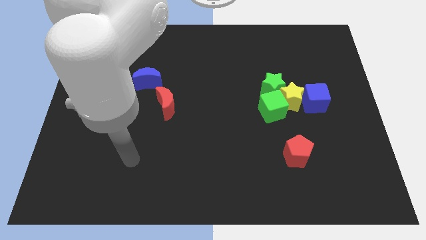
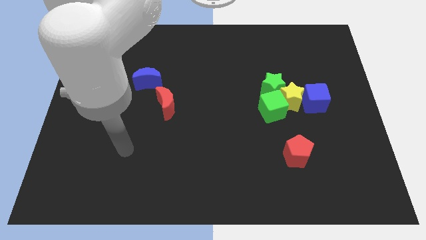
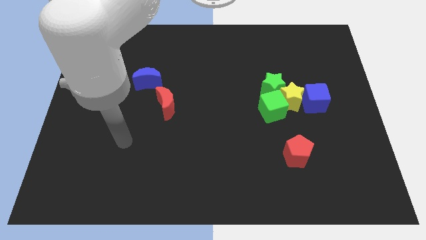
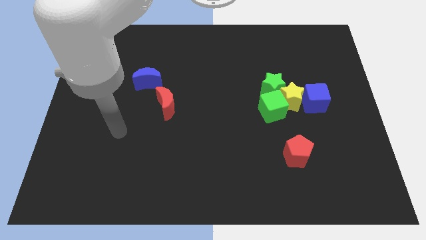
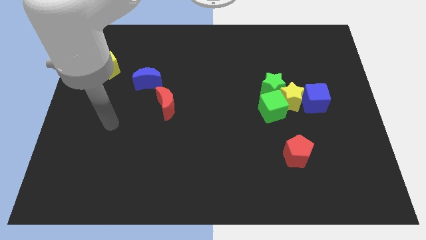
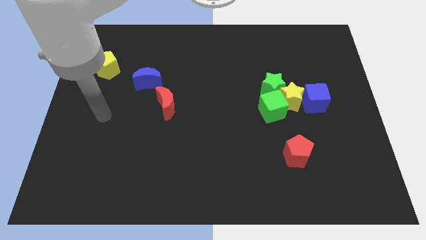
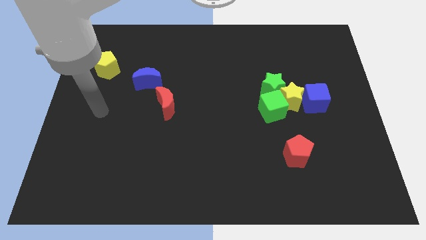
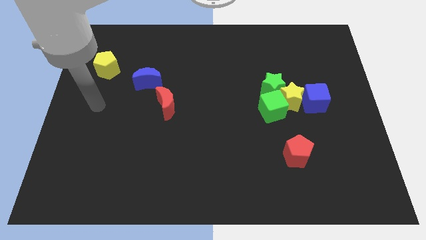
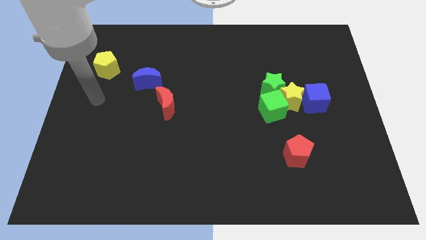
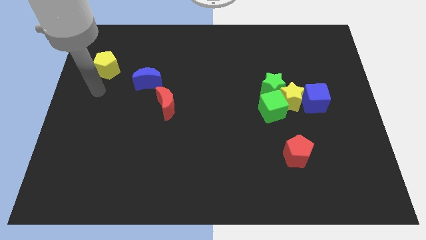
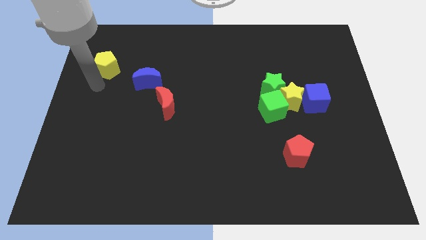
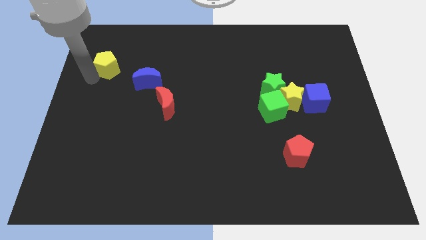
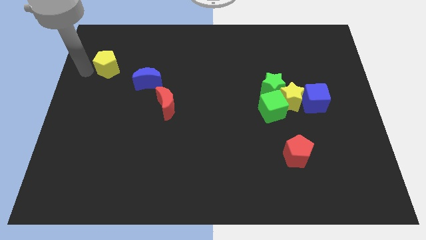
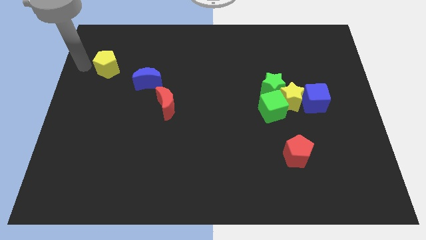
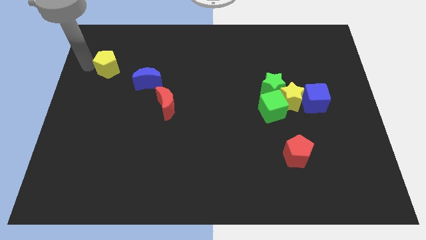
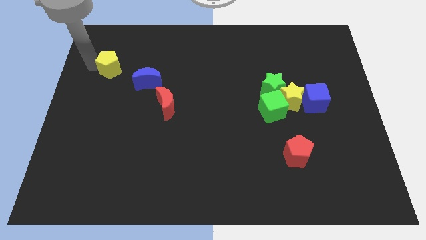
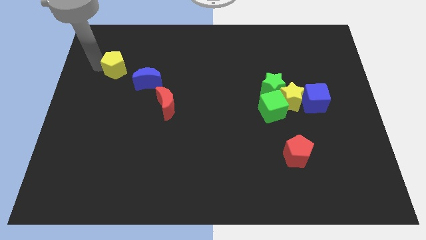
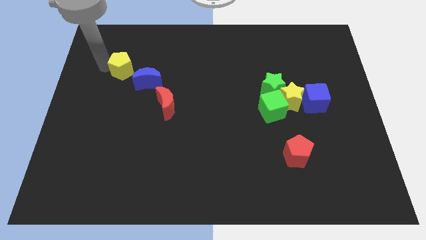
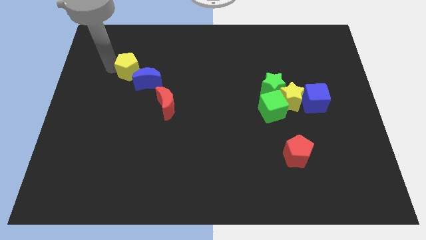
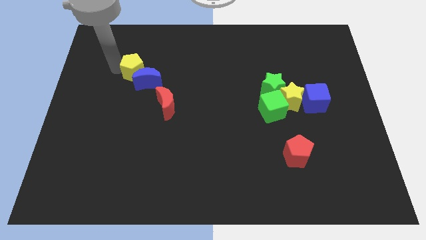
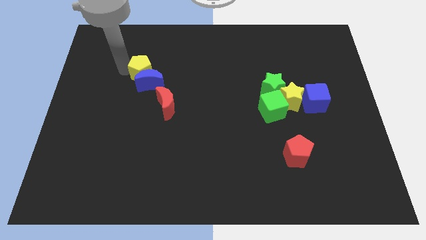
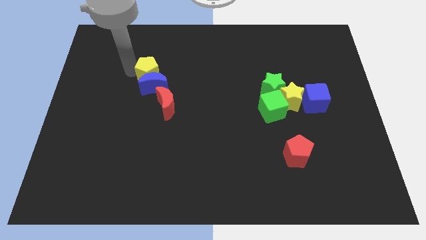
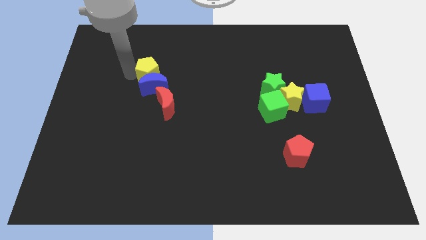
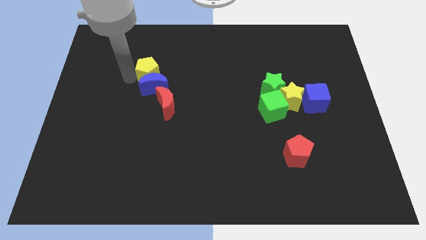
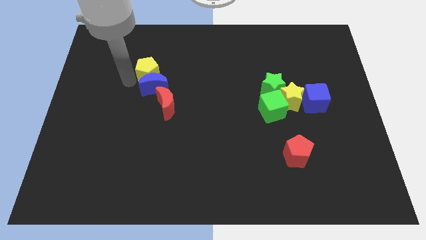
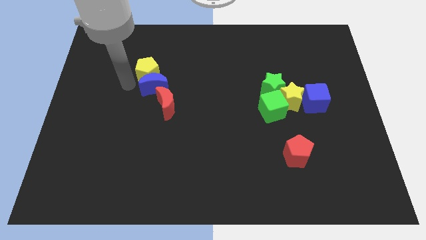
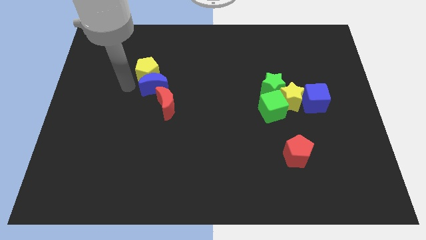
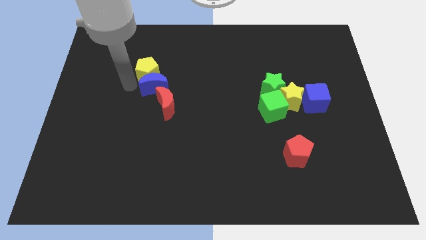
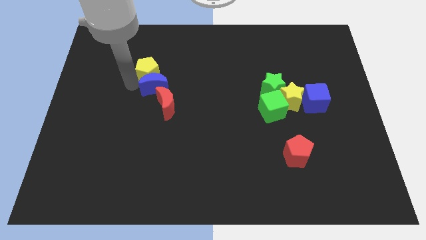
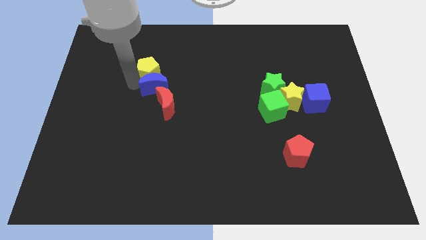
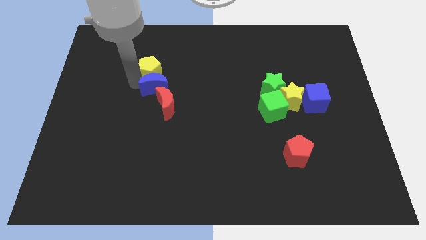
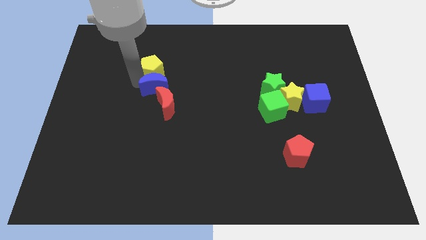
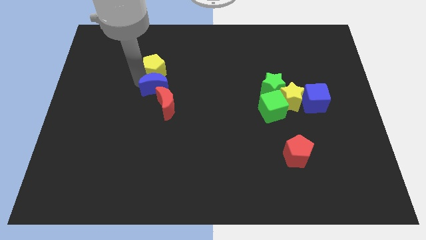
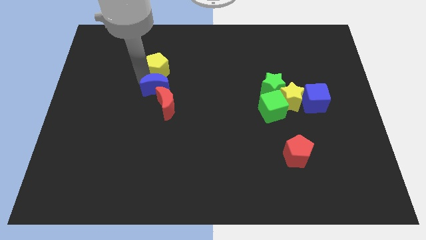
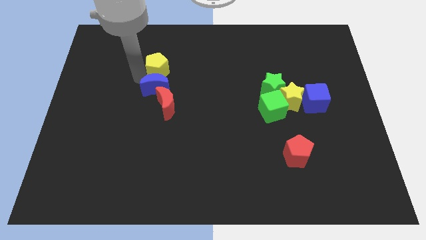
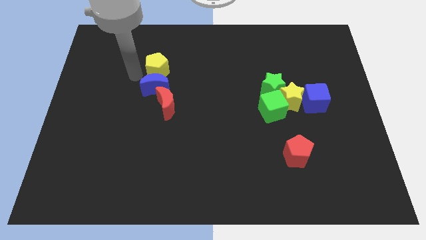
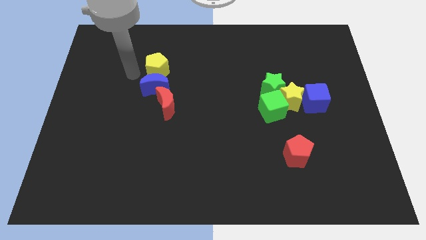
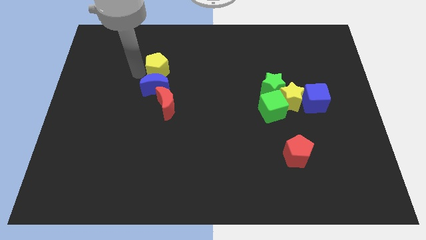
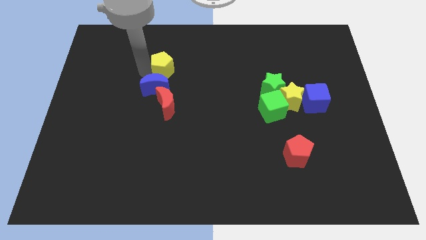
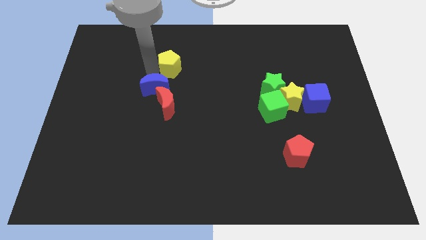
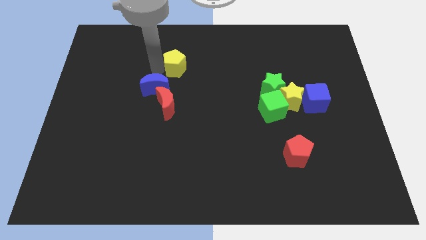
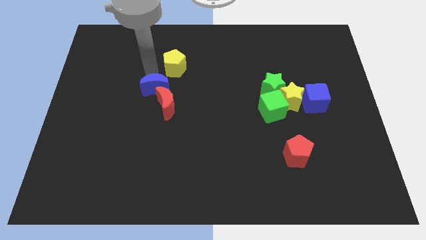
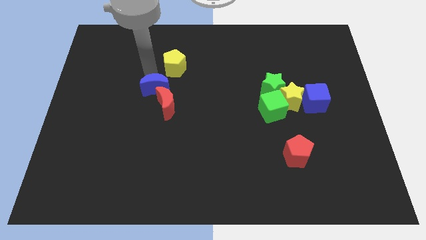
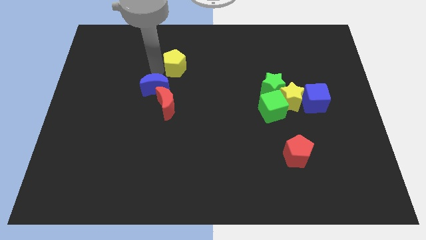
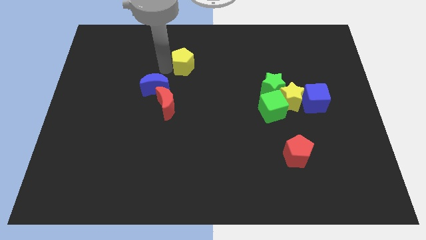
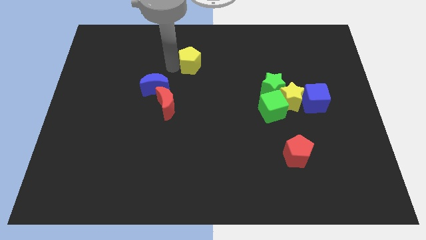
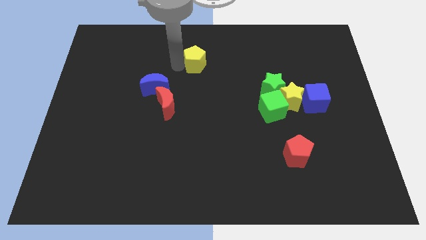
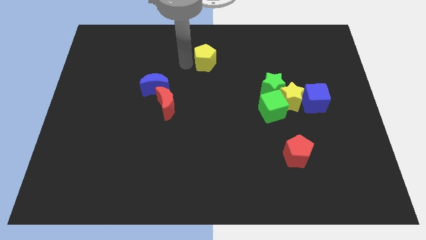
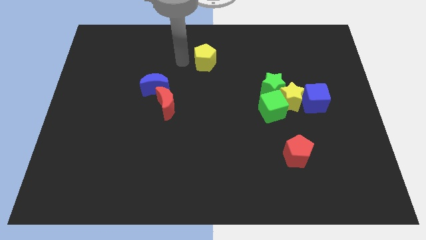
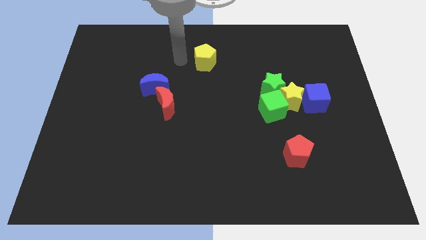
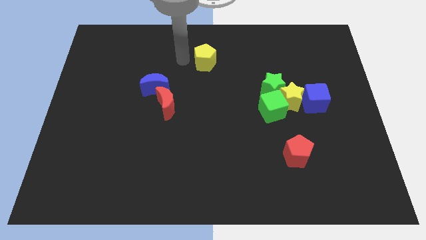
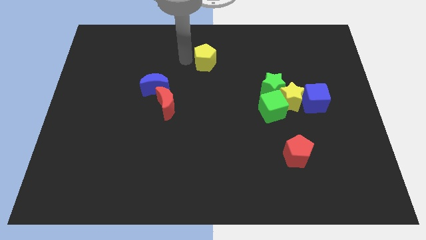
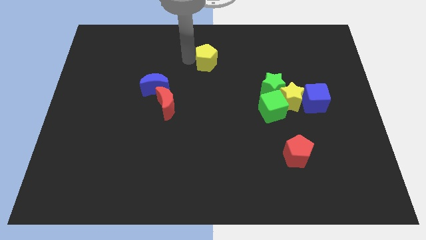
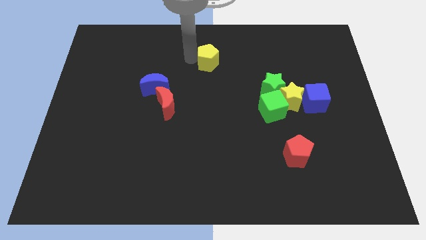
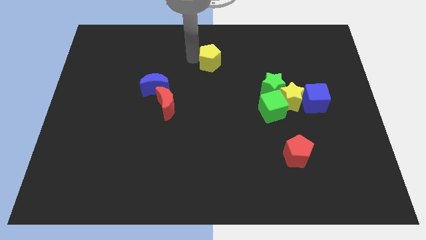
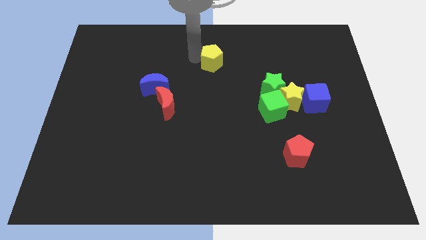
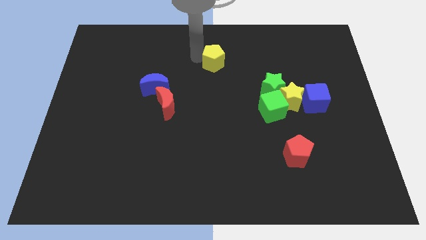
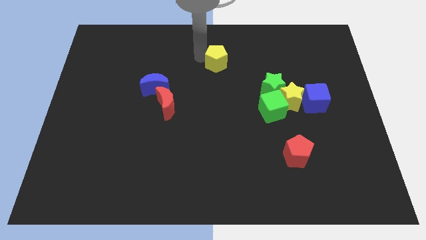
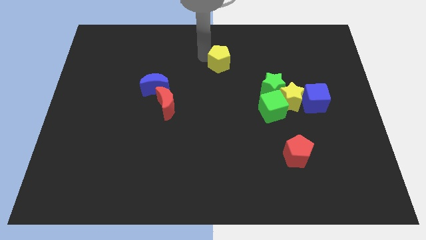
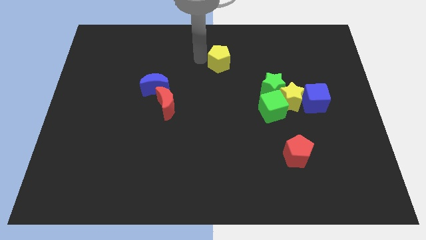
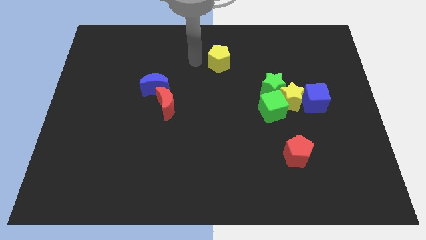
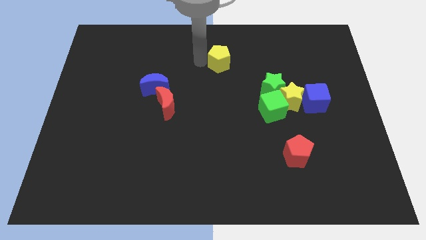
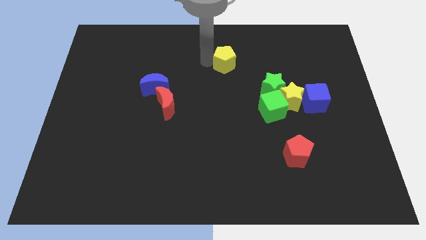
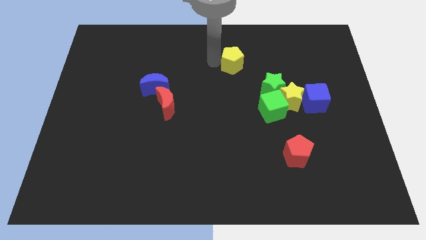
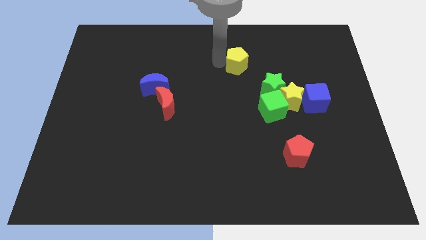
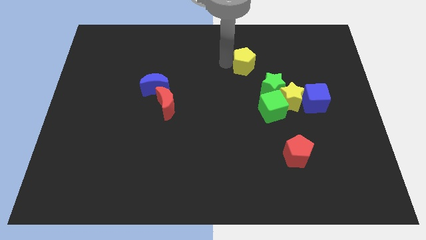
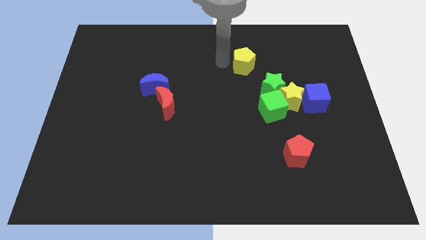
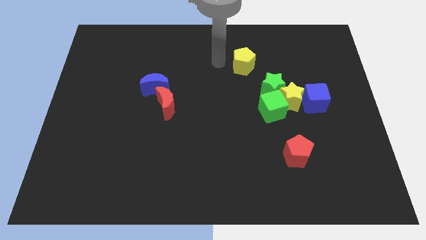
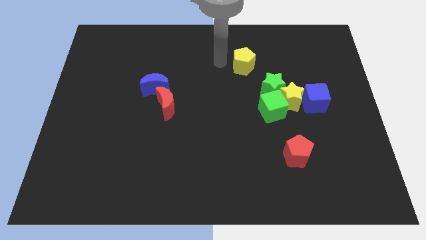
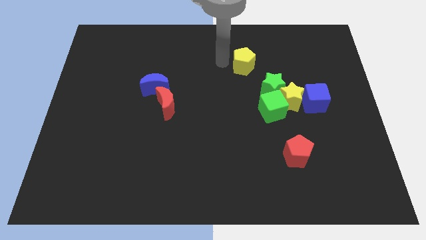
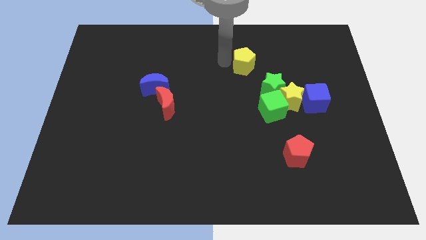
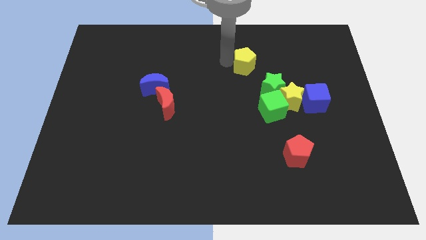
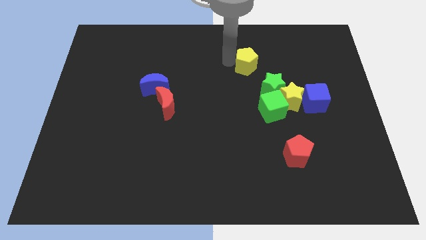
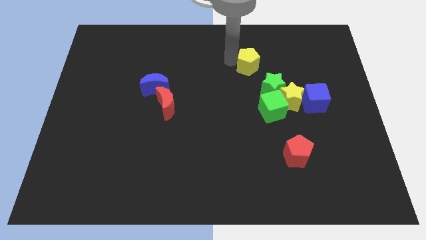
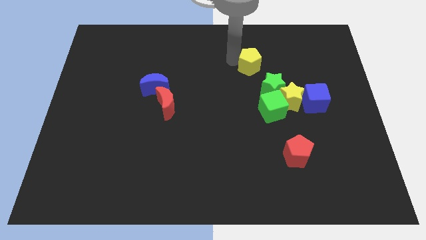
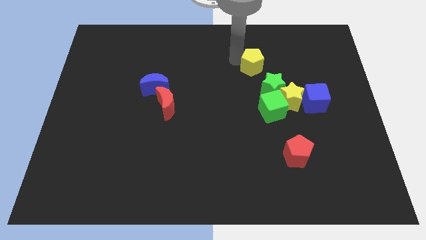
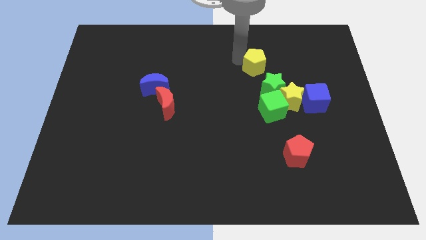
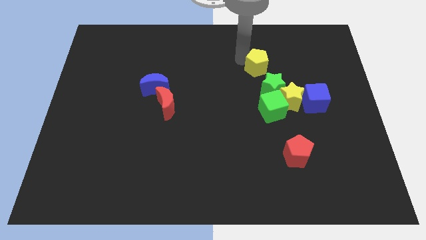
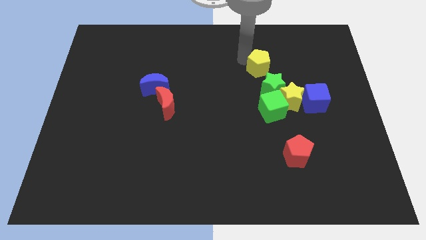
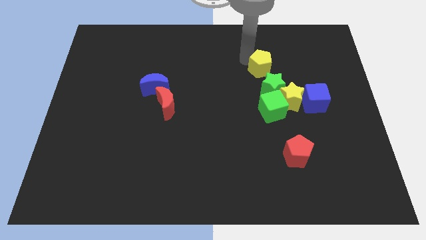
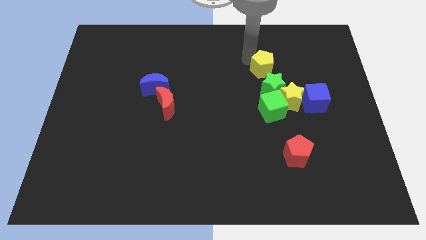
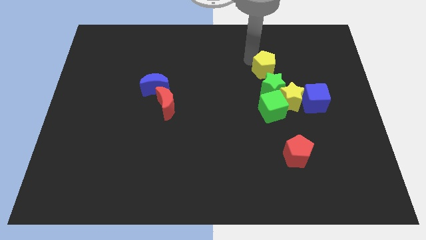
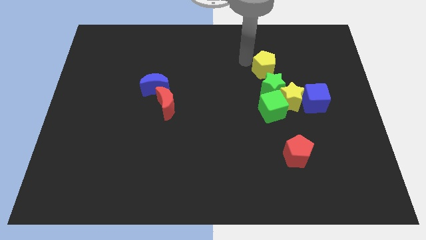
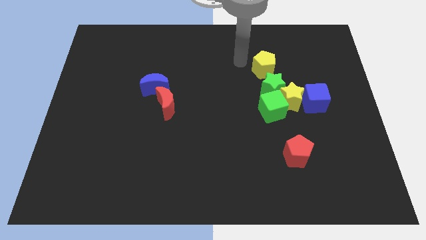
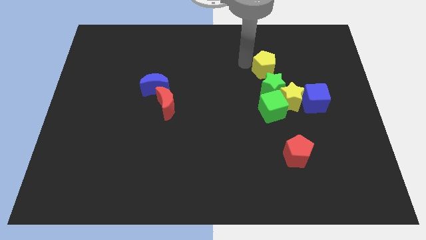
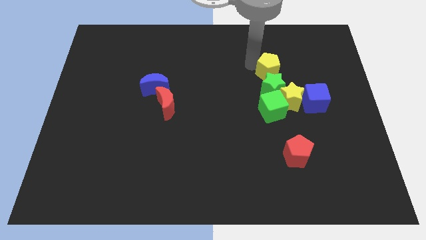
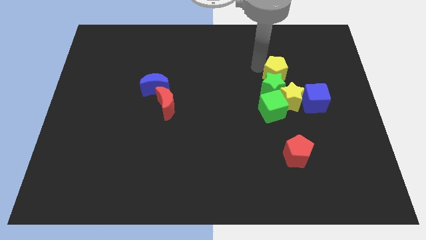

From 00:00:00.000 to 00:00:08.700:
move the yellow pentagon to the top right of the green star
